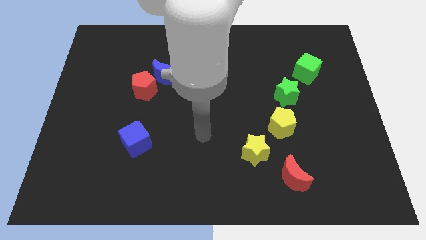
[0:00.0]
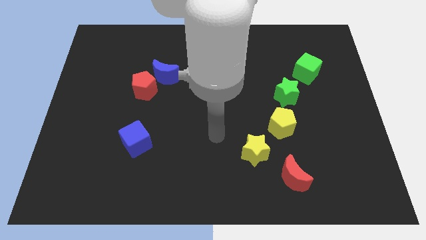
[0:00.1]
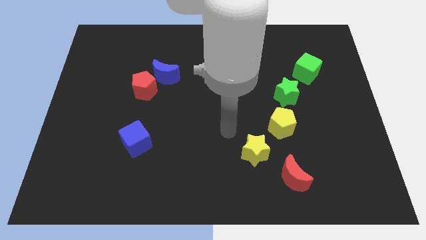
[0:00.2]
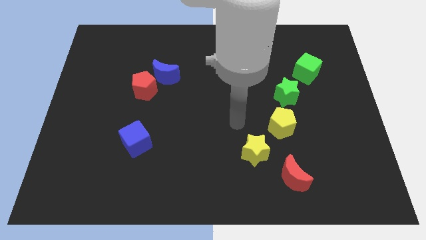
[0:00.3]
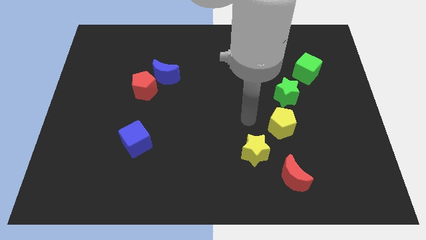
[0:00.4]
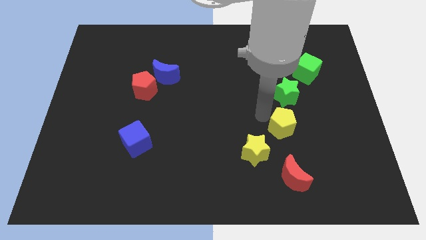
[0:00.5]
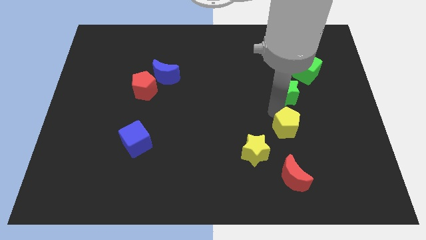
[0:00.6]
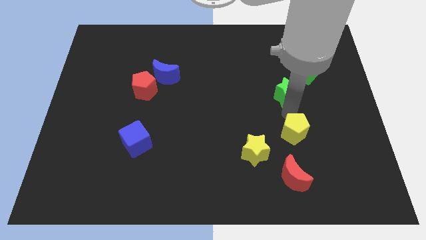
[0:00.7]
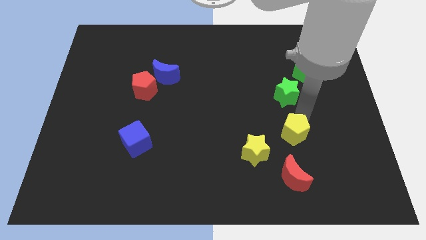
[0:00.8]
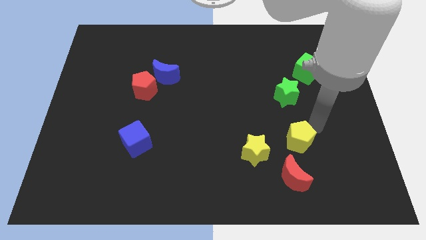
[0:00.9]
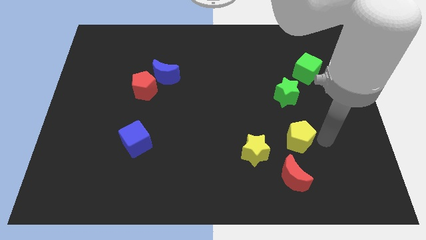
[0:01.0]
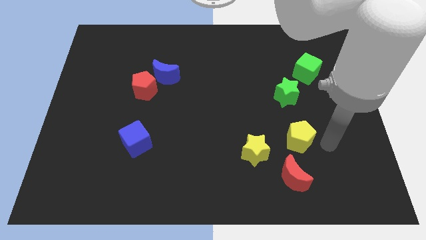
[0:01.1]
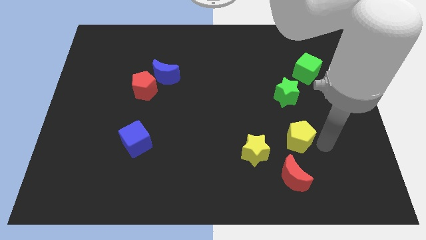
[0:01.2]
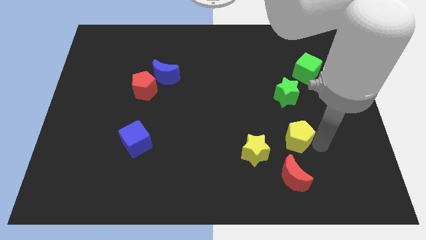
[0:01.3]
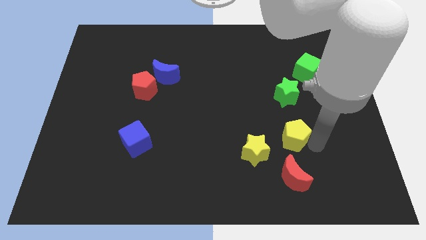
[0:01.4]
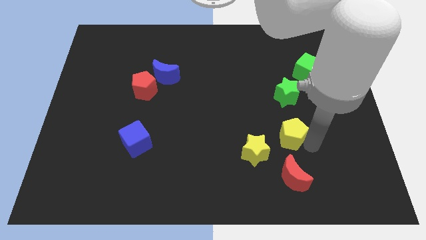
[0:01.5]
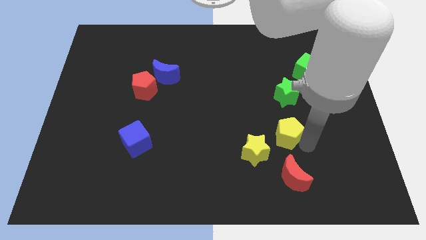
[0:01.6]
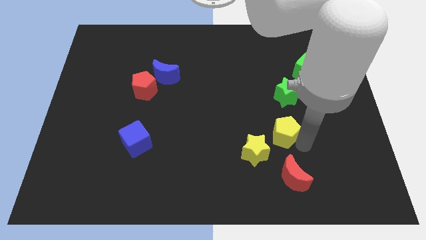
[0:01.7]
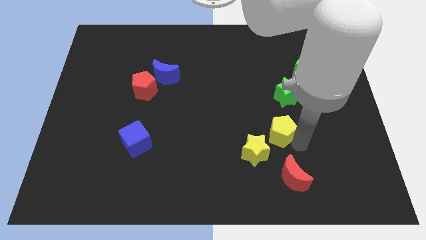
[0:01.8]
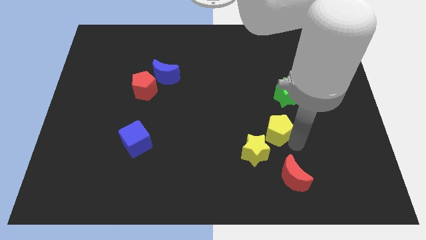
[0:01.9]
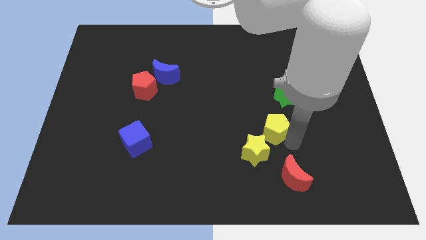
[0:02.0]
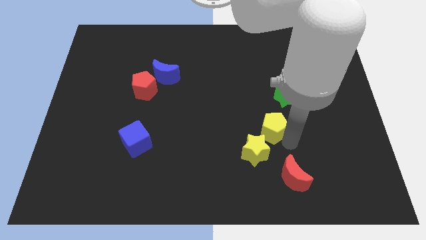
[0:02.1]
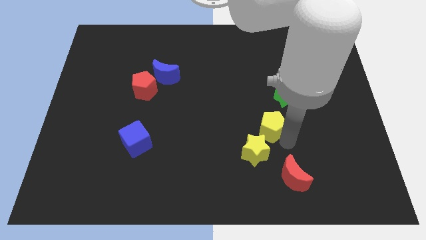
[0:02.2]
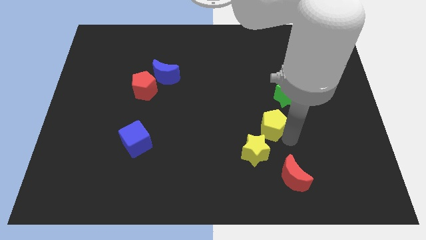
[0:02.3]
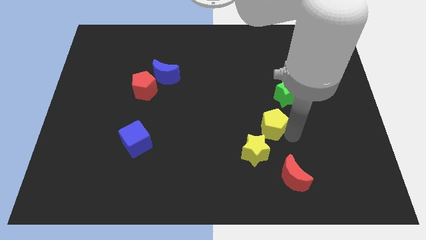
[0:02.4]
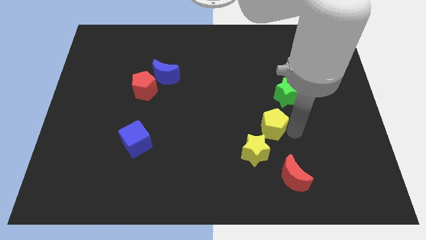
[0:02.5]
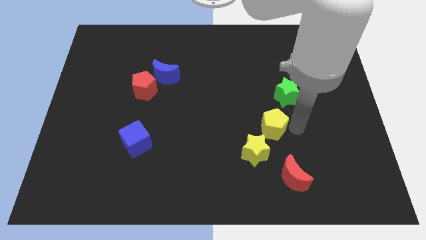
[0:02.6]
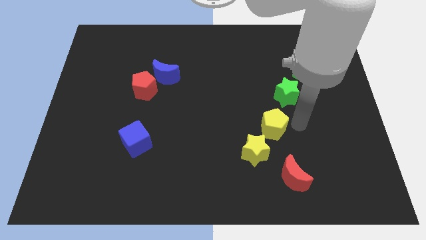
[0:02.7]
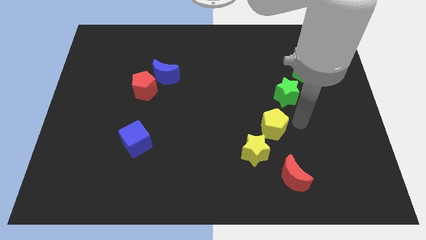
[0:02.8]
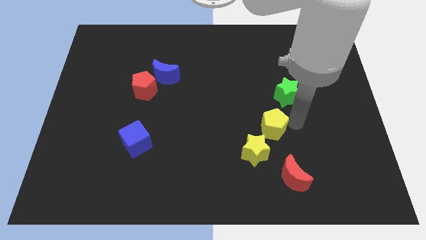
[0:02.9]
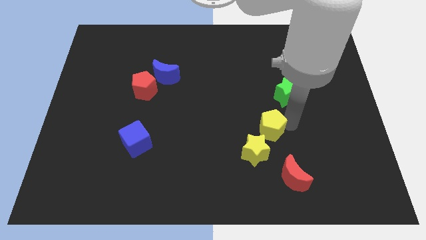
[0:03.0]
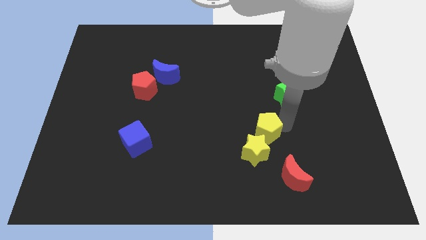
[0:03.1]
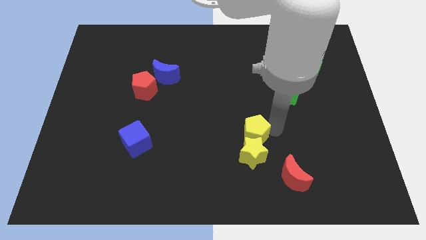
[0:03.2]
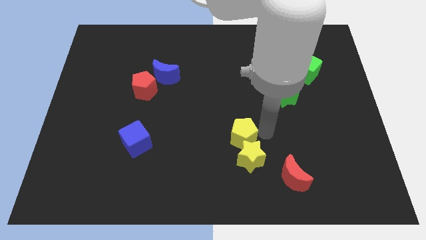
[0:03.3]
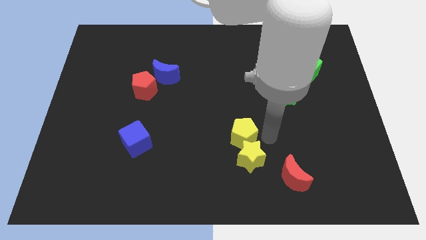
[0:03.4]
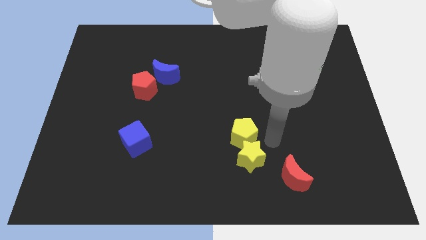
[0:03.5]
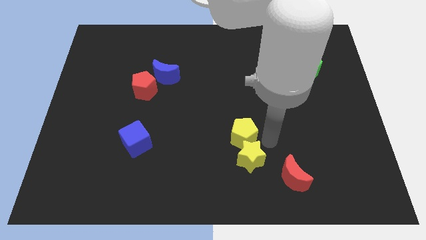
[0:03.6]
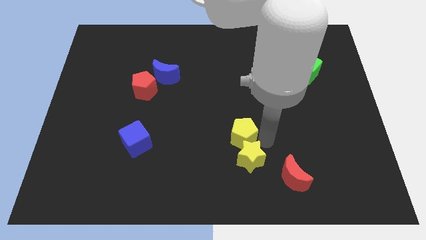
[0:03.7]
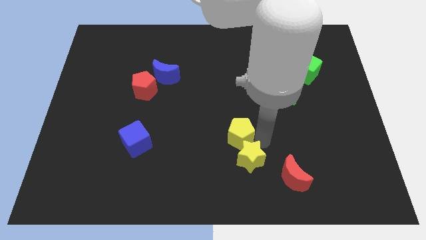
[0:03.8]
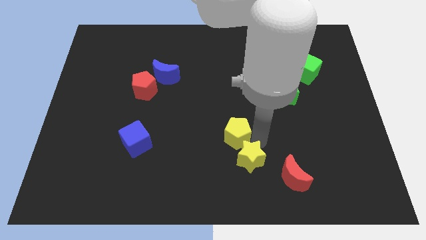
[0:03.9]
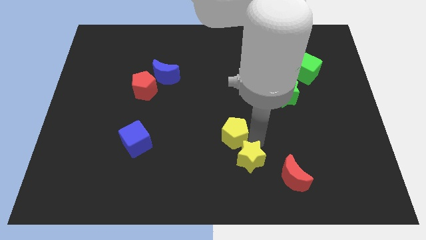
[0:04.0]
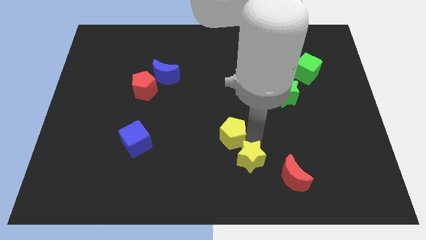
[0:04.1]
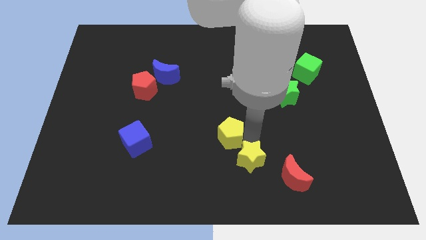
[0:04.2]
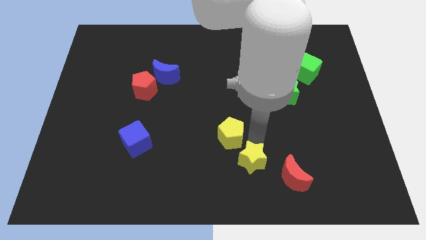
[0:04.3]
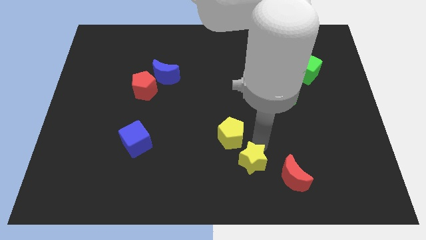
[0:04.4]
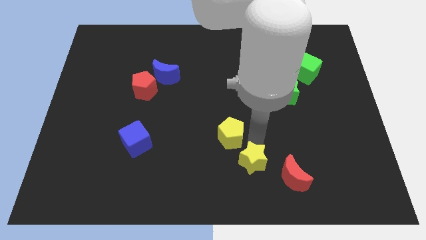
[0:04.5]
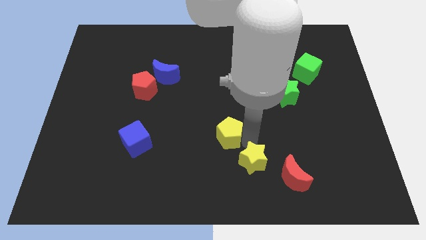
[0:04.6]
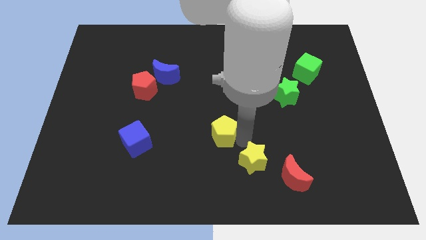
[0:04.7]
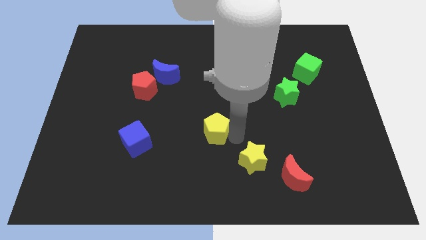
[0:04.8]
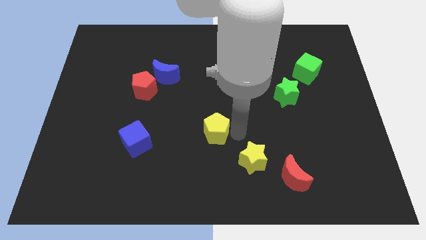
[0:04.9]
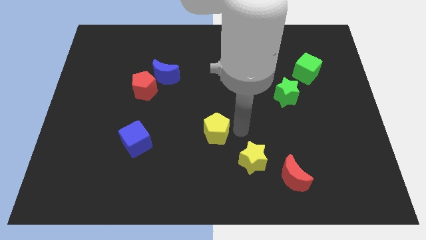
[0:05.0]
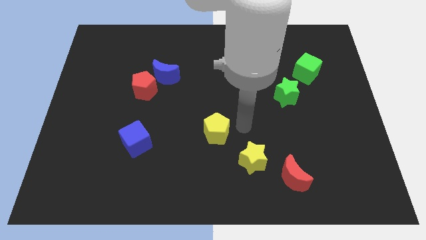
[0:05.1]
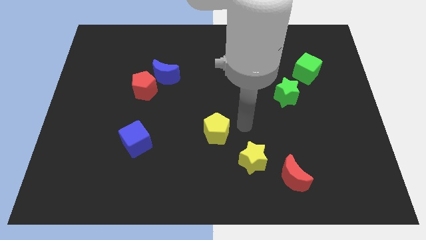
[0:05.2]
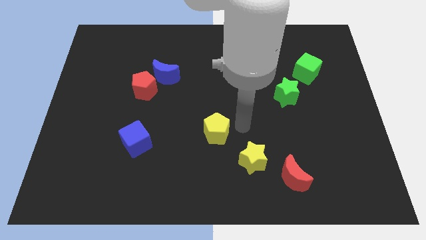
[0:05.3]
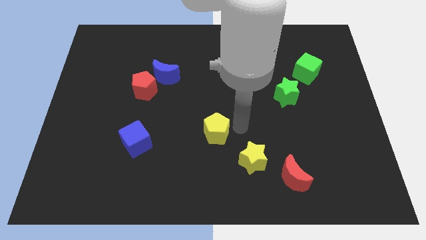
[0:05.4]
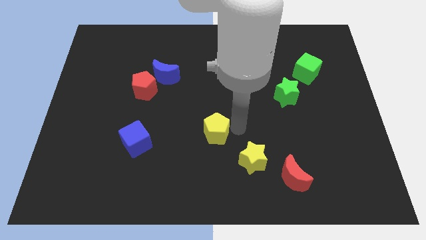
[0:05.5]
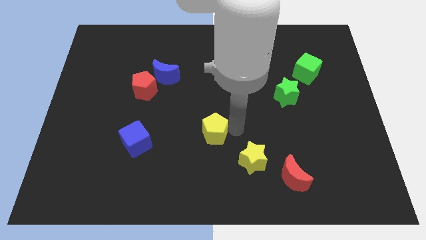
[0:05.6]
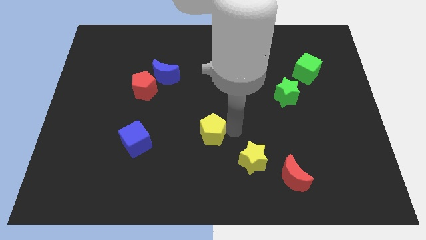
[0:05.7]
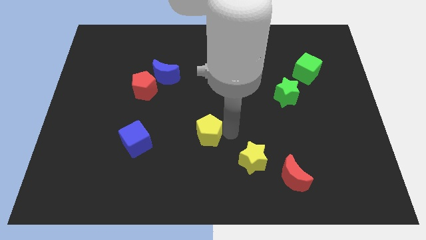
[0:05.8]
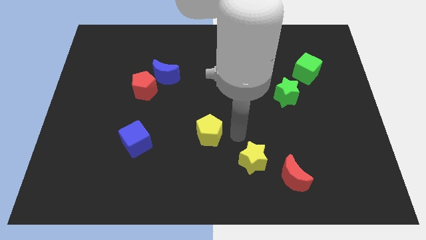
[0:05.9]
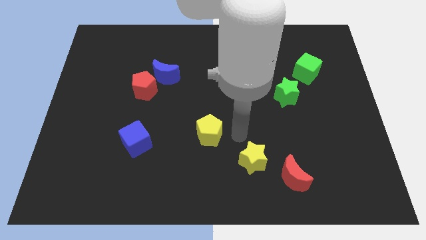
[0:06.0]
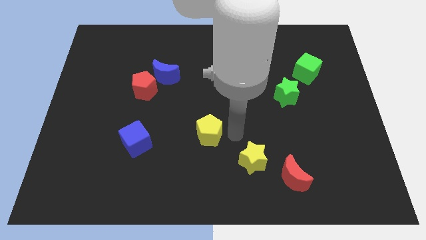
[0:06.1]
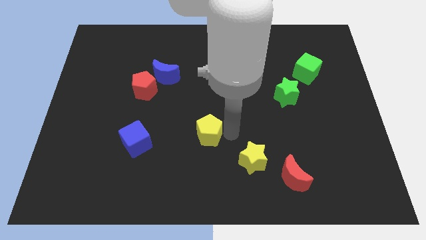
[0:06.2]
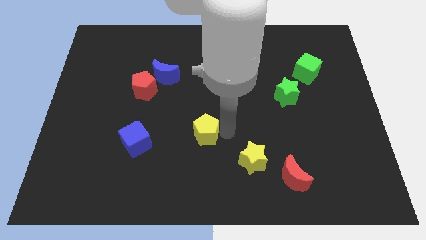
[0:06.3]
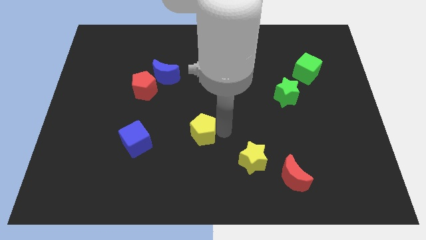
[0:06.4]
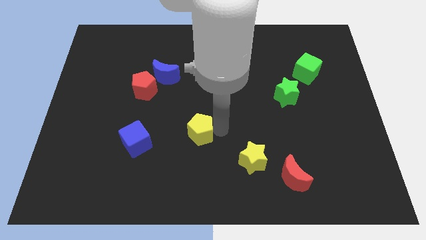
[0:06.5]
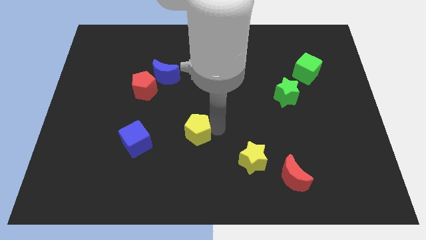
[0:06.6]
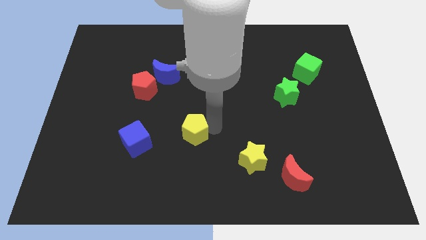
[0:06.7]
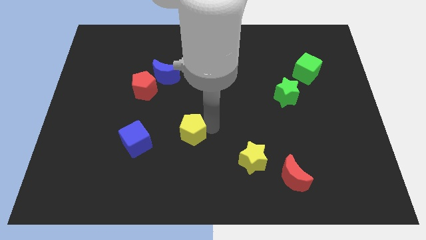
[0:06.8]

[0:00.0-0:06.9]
move the yellow pentagon to the left

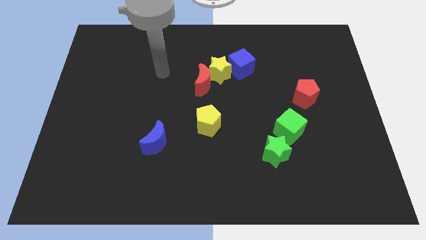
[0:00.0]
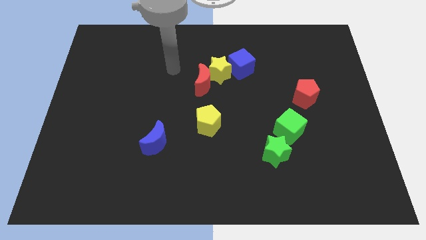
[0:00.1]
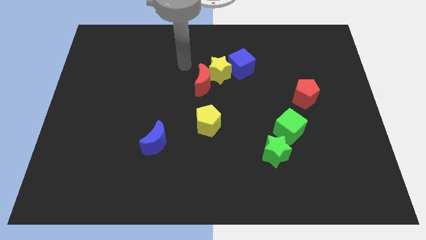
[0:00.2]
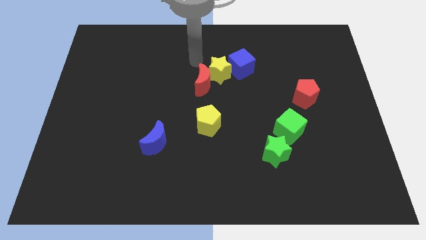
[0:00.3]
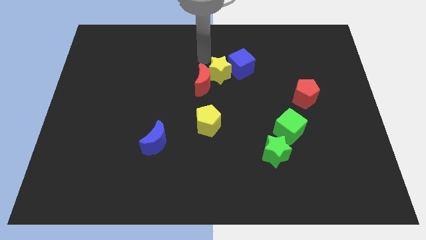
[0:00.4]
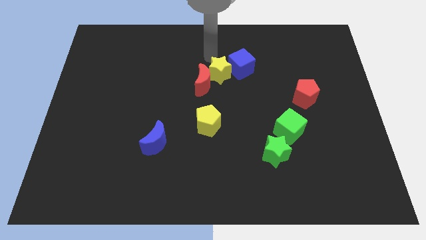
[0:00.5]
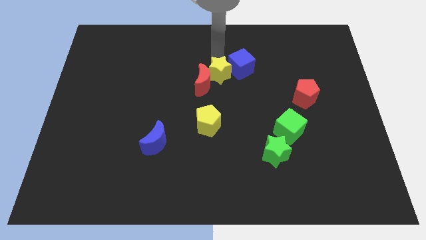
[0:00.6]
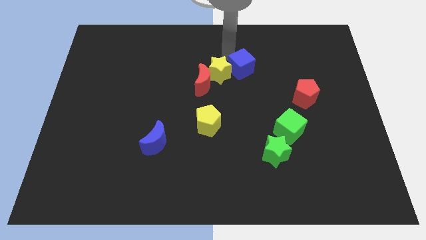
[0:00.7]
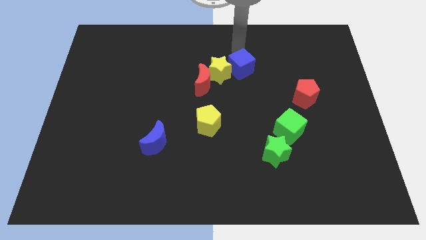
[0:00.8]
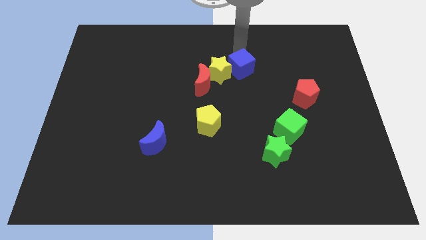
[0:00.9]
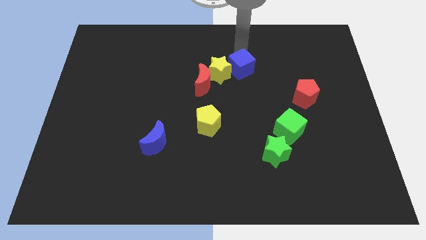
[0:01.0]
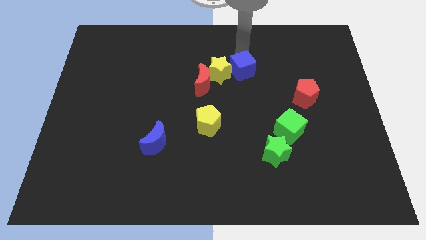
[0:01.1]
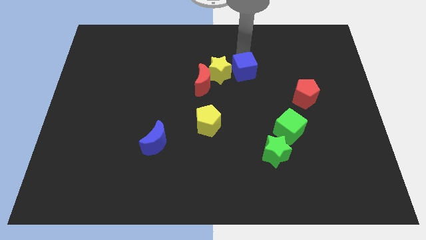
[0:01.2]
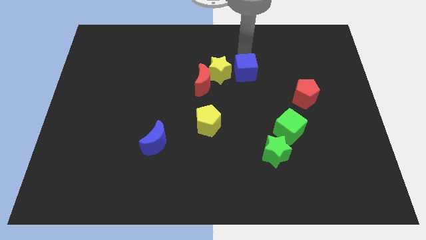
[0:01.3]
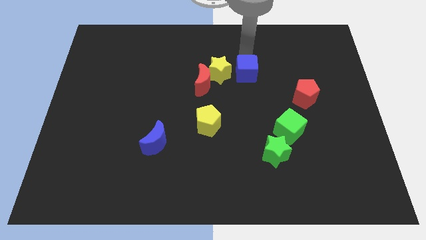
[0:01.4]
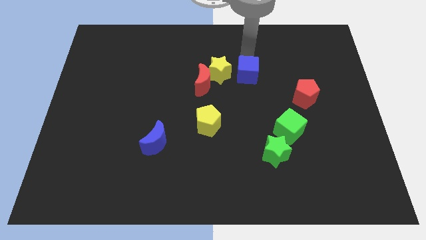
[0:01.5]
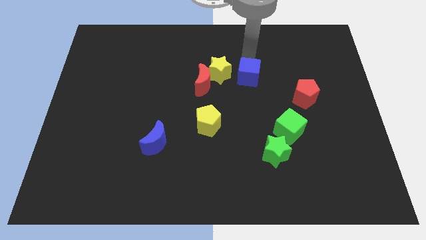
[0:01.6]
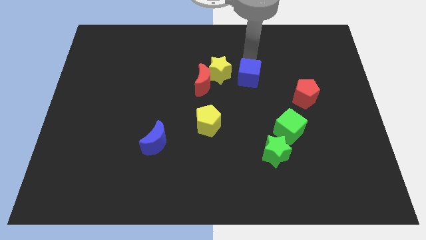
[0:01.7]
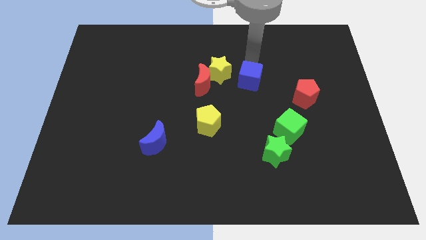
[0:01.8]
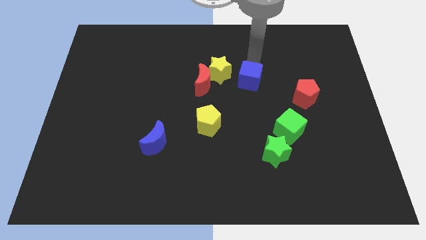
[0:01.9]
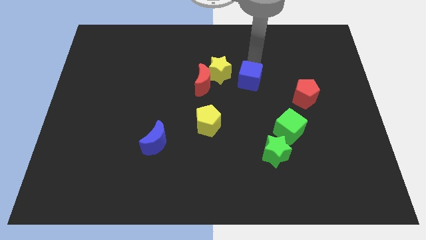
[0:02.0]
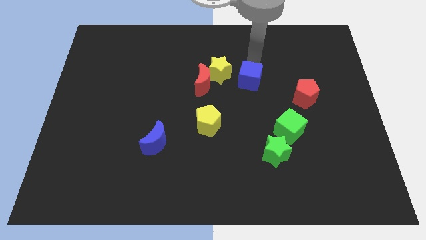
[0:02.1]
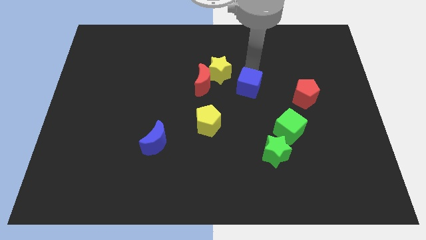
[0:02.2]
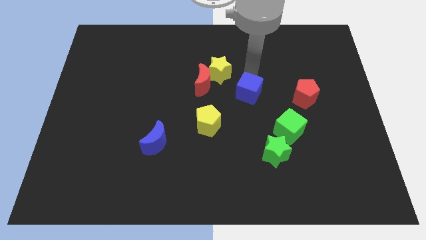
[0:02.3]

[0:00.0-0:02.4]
push the blue cube a little downwards
